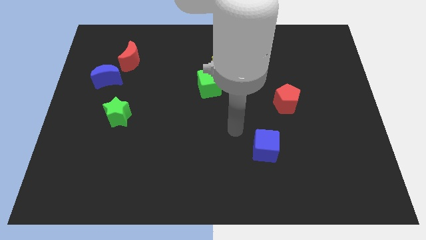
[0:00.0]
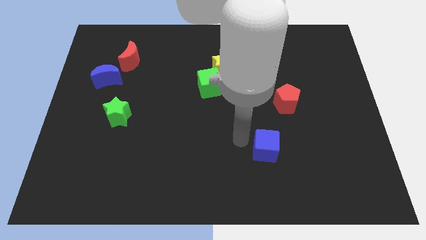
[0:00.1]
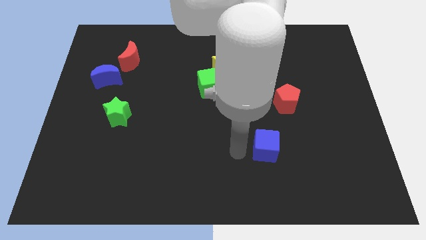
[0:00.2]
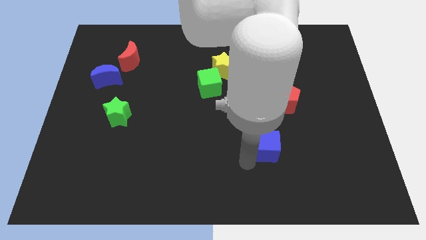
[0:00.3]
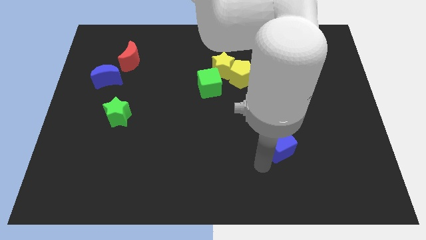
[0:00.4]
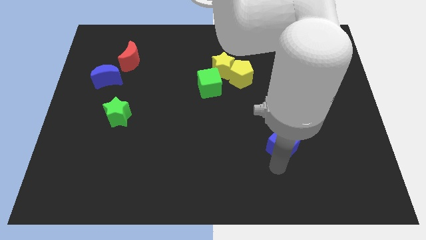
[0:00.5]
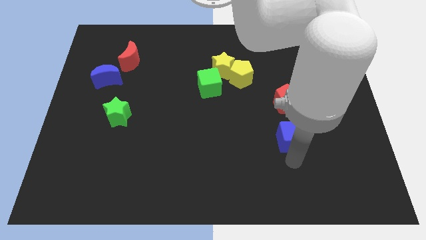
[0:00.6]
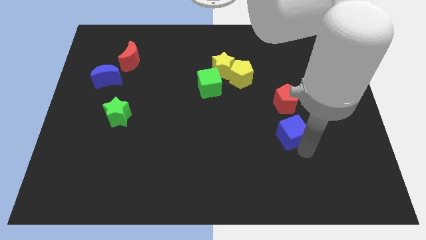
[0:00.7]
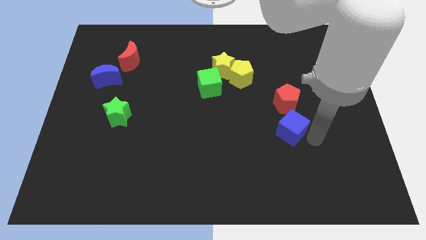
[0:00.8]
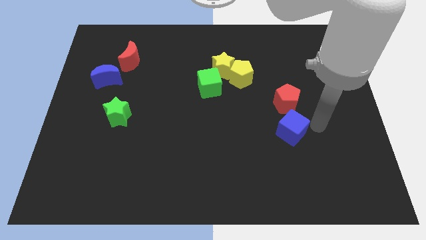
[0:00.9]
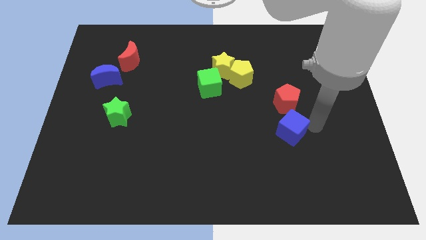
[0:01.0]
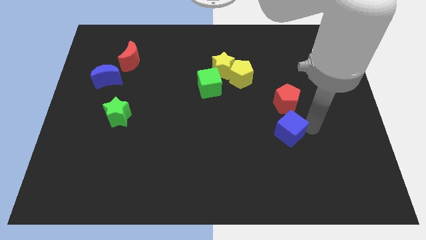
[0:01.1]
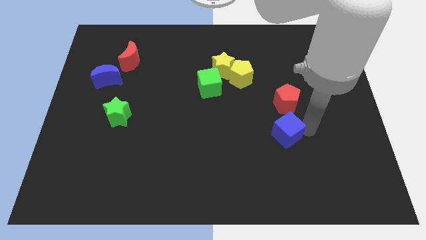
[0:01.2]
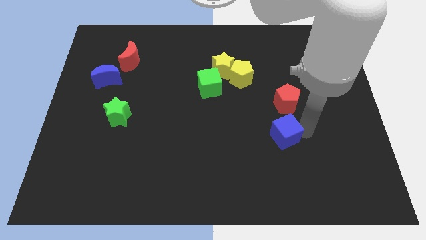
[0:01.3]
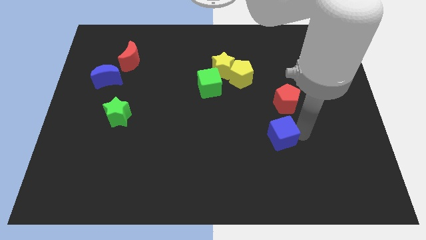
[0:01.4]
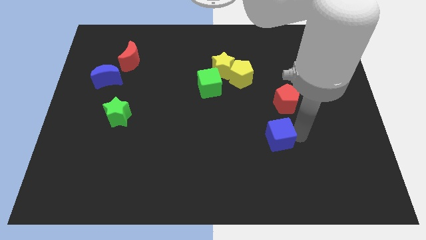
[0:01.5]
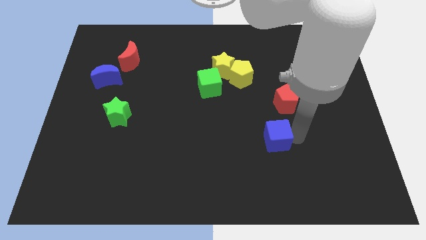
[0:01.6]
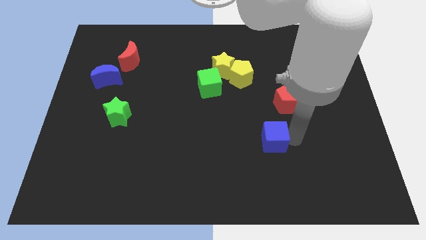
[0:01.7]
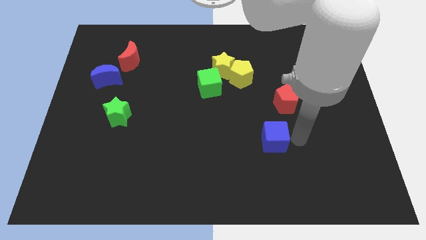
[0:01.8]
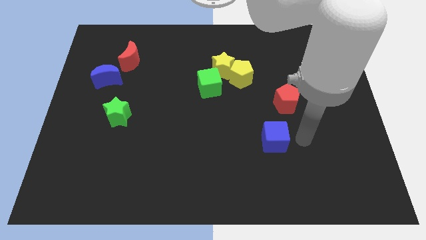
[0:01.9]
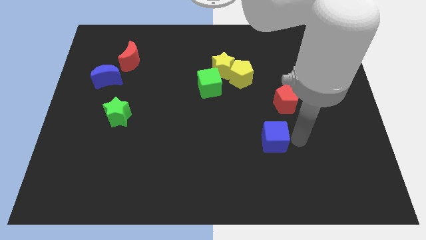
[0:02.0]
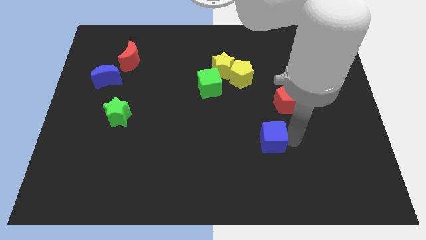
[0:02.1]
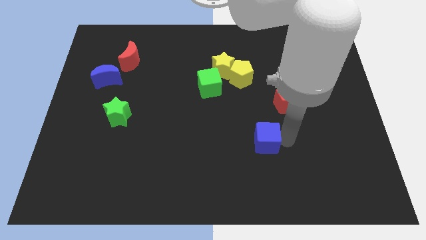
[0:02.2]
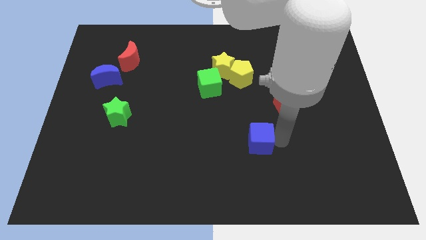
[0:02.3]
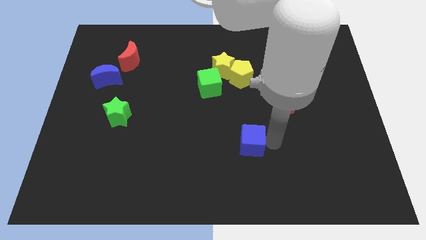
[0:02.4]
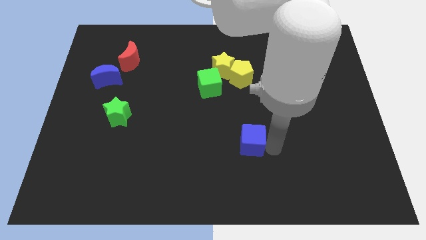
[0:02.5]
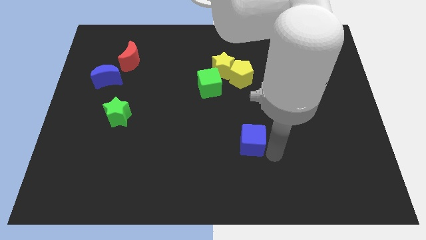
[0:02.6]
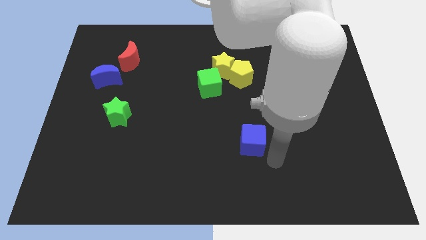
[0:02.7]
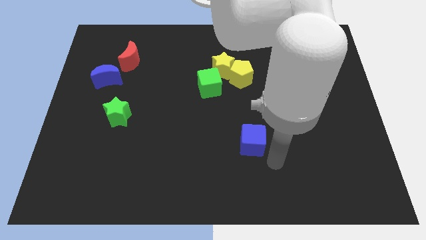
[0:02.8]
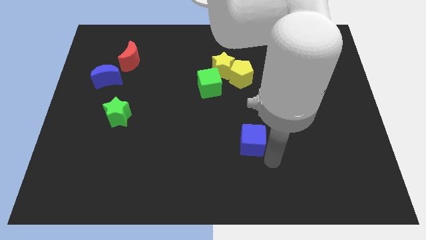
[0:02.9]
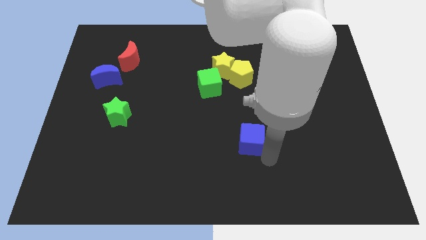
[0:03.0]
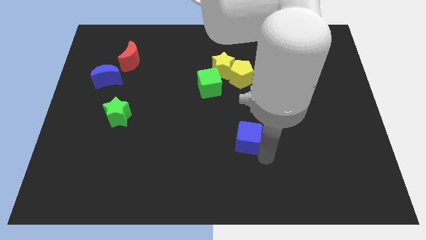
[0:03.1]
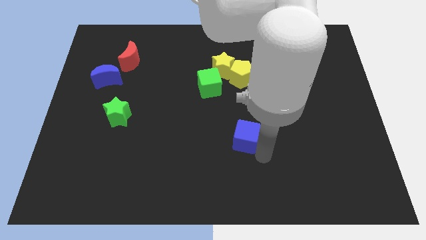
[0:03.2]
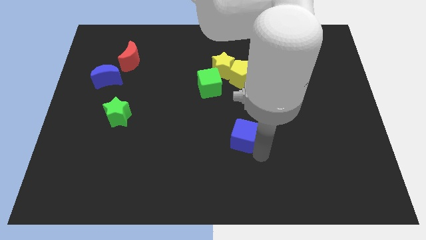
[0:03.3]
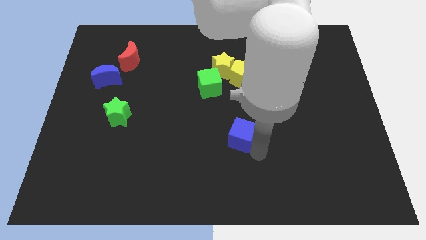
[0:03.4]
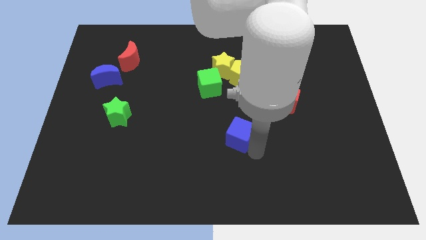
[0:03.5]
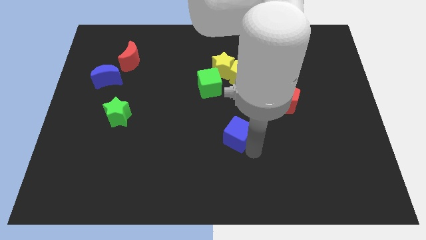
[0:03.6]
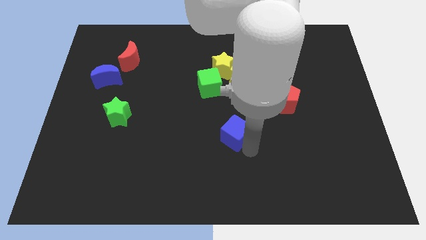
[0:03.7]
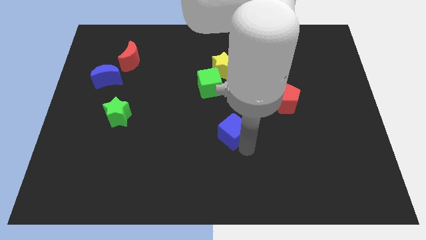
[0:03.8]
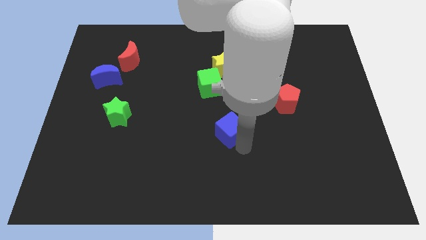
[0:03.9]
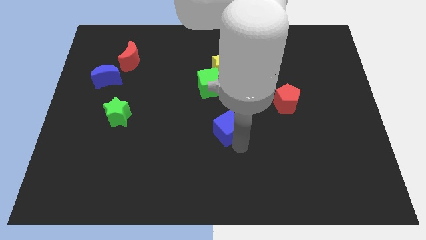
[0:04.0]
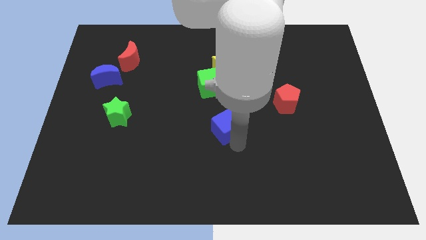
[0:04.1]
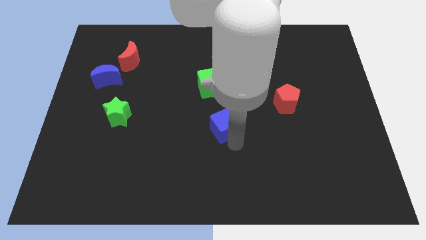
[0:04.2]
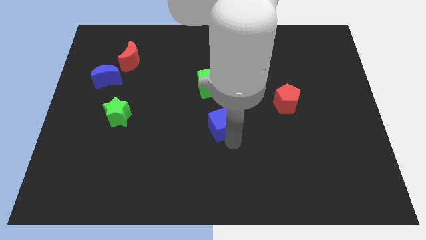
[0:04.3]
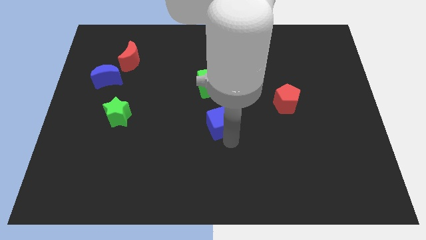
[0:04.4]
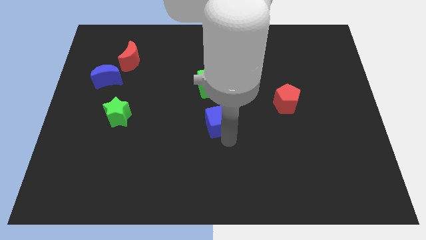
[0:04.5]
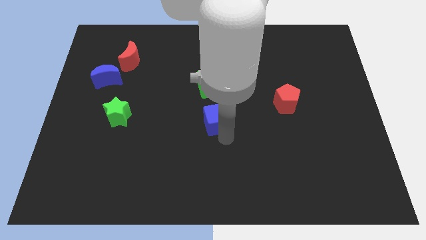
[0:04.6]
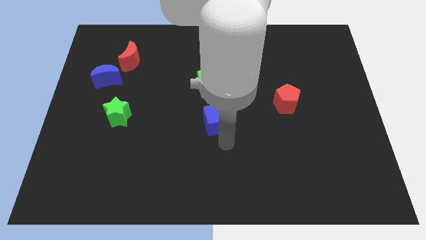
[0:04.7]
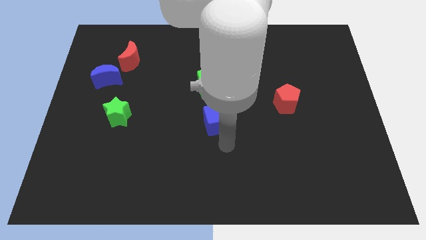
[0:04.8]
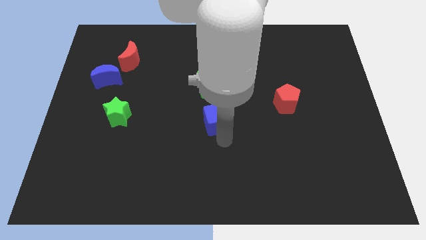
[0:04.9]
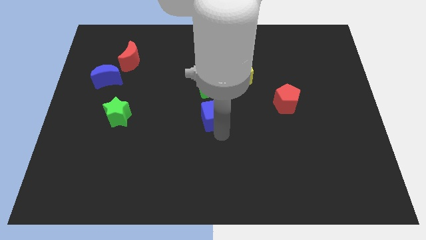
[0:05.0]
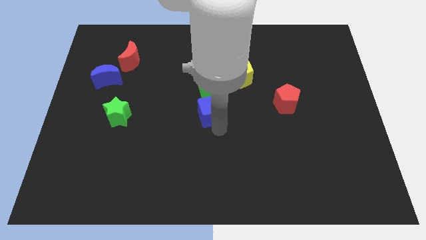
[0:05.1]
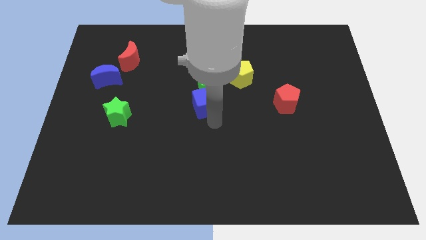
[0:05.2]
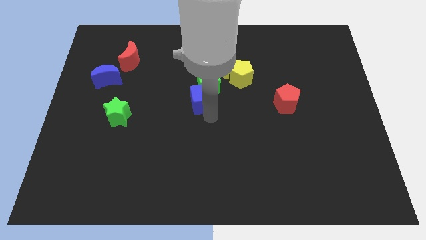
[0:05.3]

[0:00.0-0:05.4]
put the blue cube to the bottom left side of the yellow star

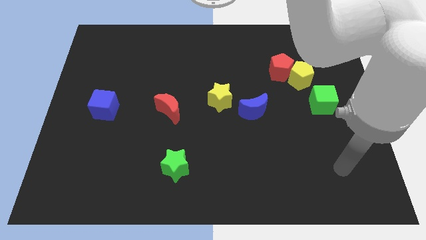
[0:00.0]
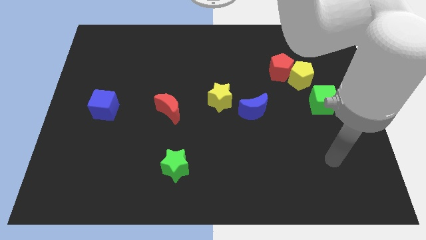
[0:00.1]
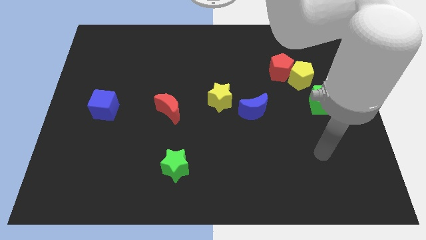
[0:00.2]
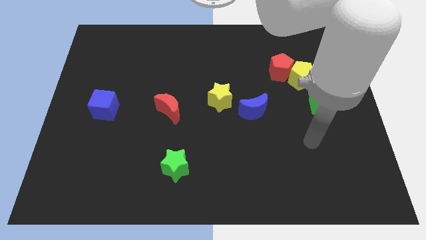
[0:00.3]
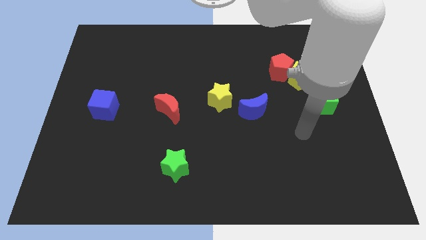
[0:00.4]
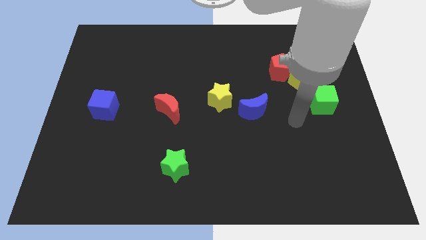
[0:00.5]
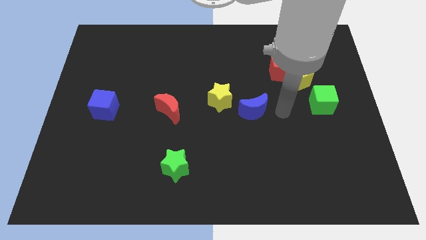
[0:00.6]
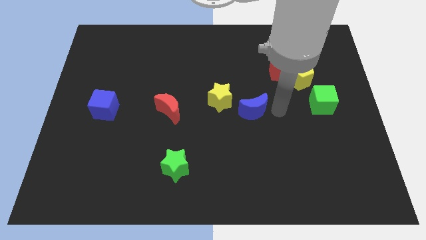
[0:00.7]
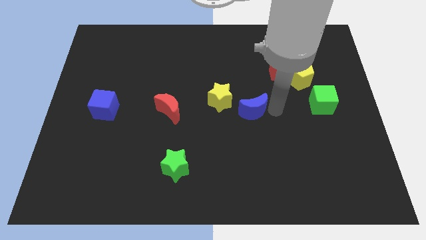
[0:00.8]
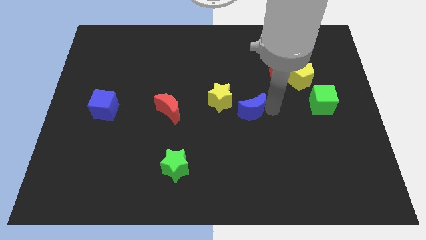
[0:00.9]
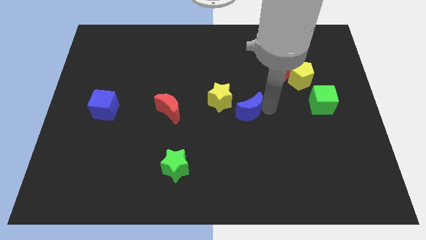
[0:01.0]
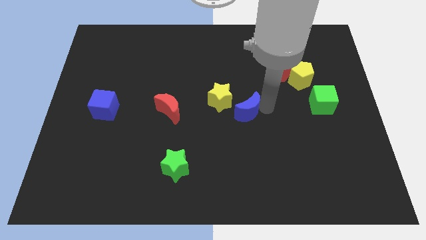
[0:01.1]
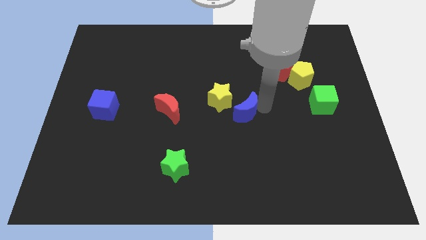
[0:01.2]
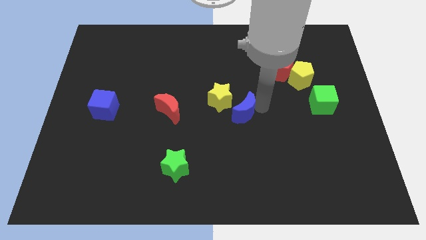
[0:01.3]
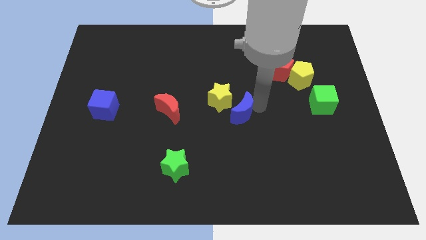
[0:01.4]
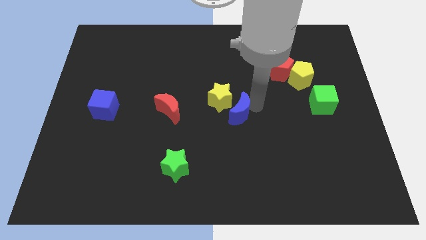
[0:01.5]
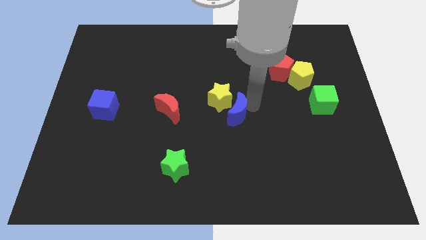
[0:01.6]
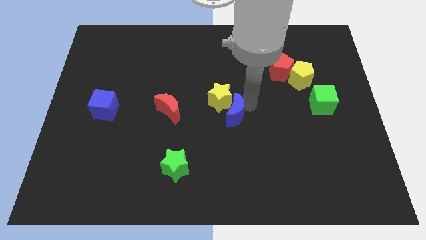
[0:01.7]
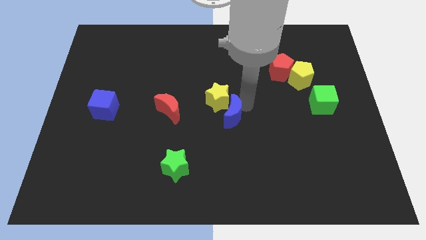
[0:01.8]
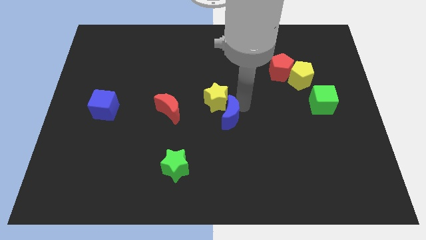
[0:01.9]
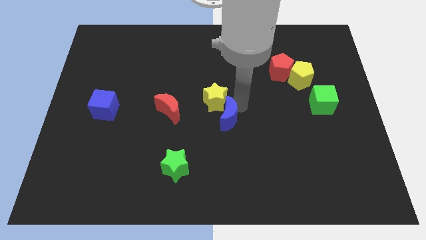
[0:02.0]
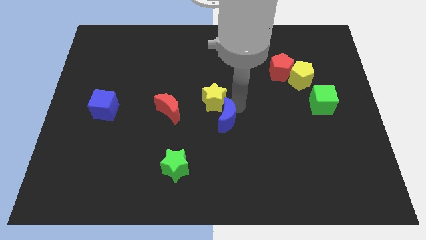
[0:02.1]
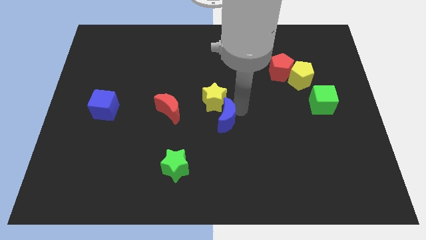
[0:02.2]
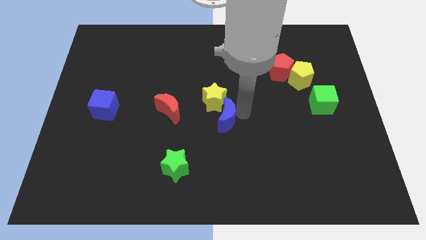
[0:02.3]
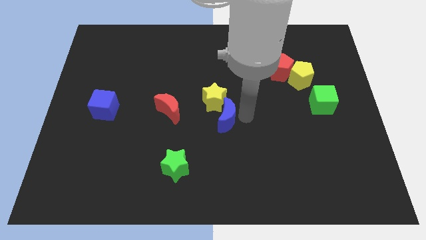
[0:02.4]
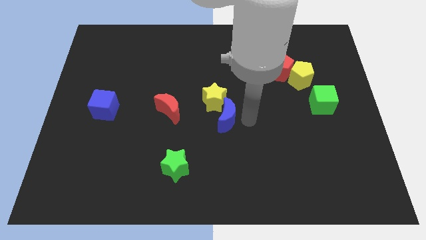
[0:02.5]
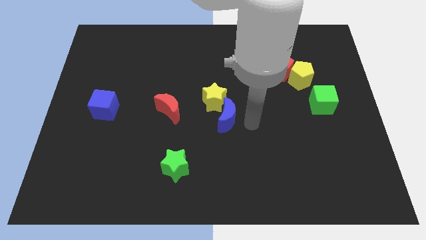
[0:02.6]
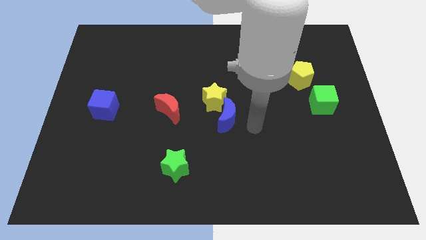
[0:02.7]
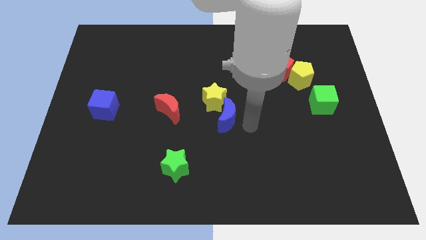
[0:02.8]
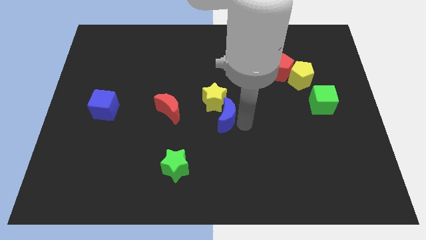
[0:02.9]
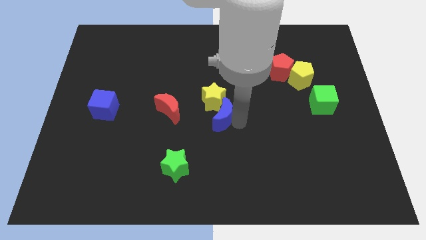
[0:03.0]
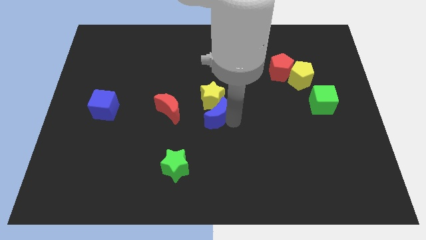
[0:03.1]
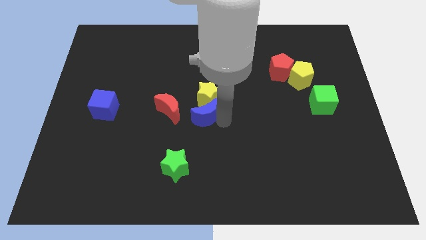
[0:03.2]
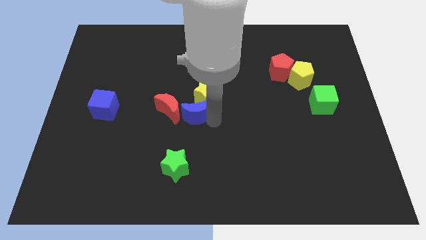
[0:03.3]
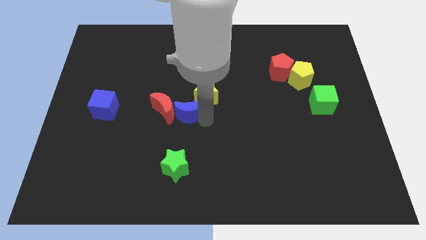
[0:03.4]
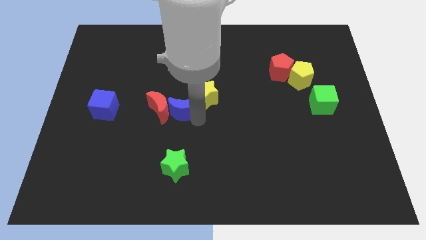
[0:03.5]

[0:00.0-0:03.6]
slide the blue moon diagonally up and to the right of the red moon
